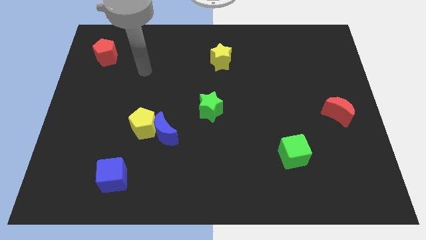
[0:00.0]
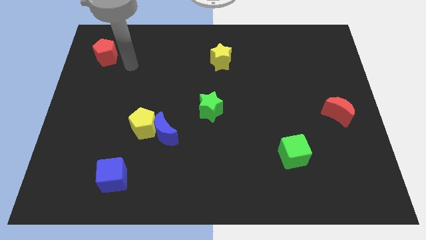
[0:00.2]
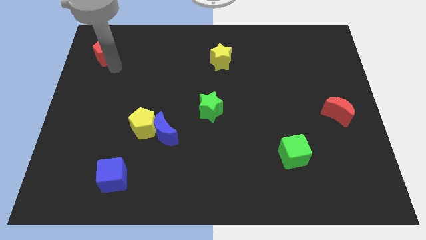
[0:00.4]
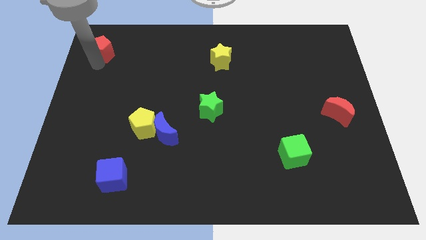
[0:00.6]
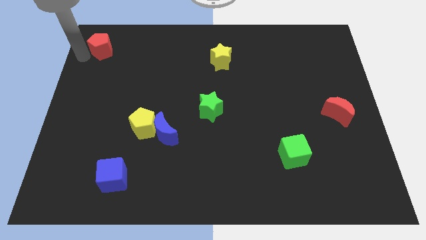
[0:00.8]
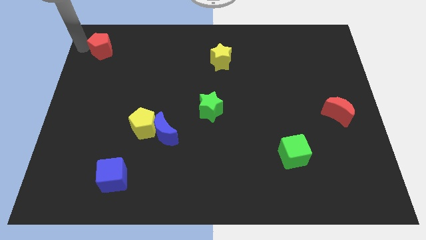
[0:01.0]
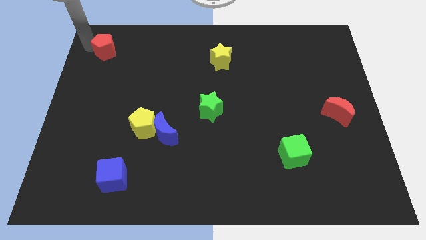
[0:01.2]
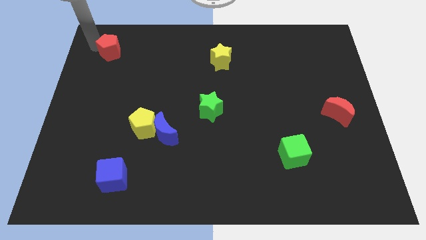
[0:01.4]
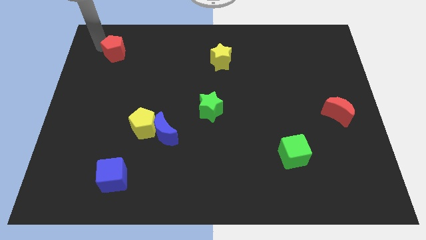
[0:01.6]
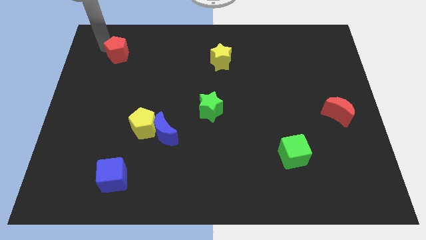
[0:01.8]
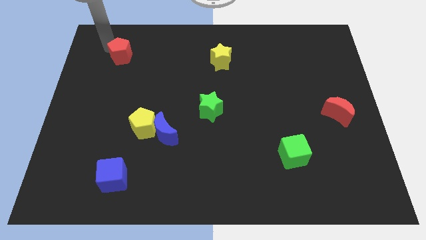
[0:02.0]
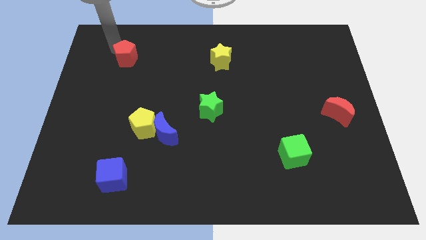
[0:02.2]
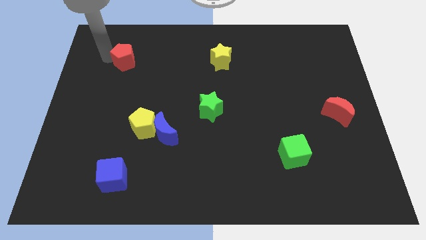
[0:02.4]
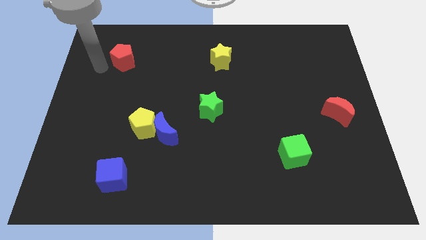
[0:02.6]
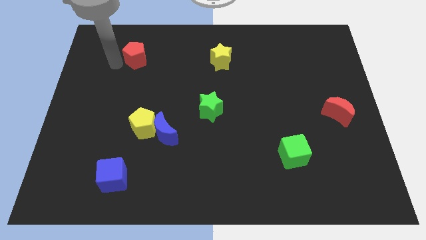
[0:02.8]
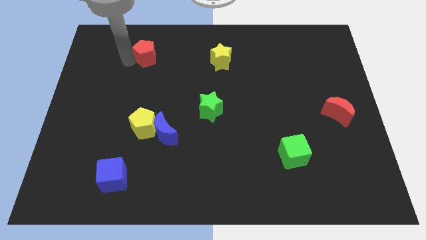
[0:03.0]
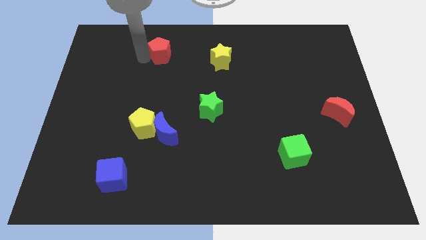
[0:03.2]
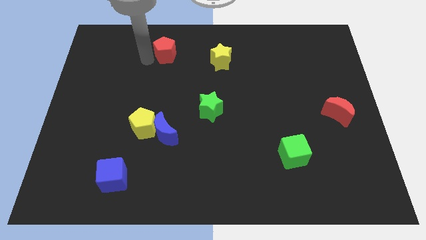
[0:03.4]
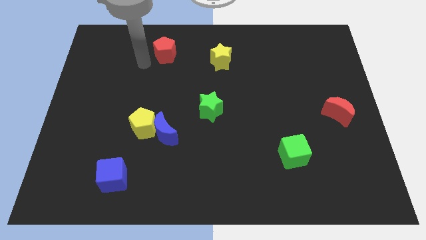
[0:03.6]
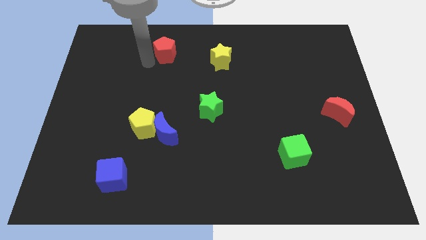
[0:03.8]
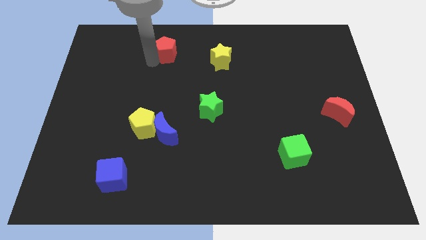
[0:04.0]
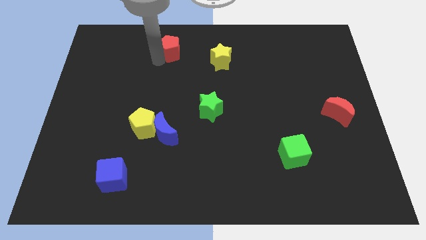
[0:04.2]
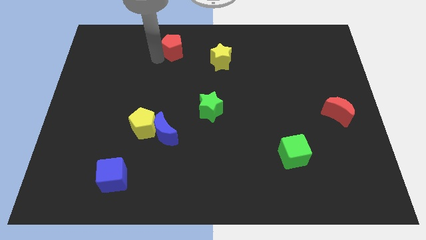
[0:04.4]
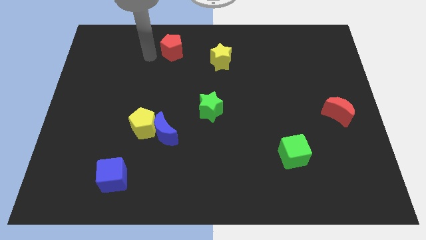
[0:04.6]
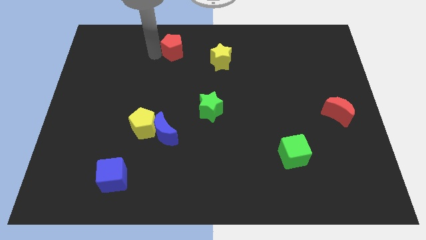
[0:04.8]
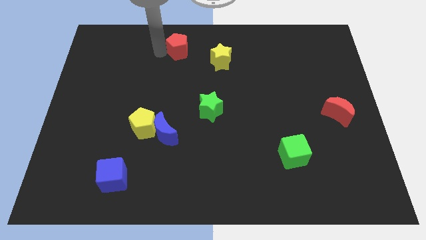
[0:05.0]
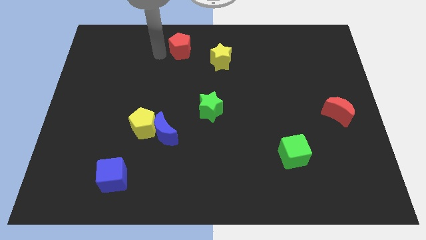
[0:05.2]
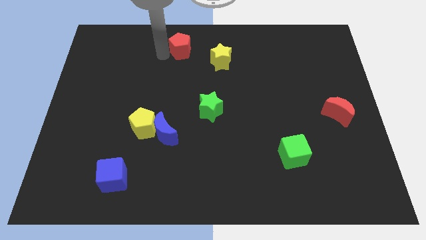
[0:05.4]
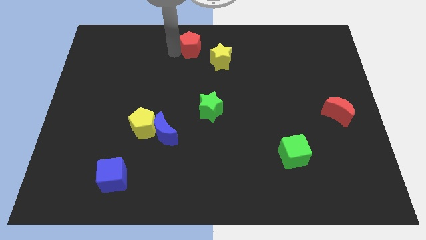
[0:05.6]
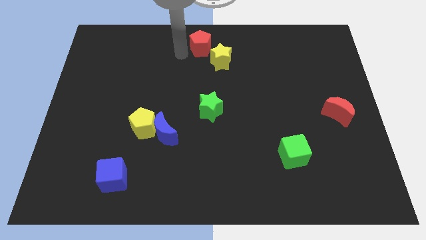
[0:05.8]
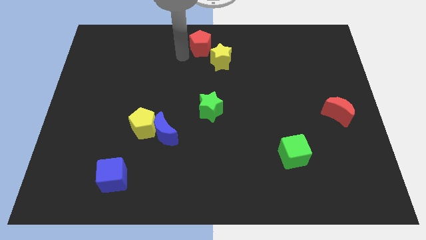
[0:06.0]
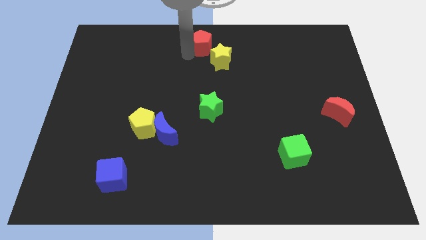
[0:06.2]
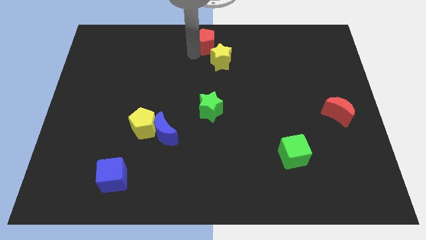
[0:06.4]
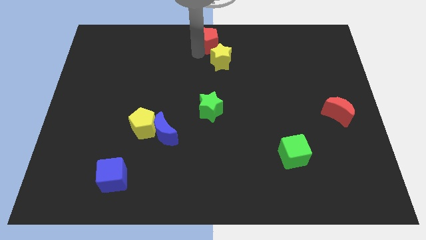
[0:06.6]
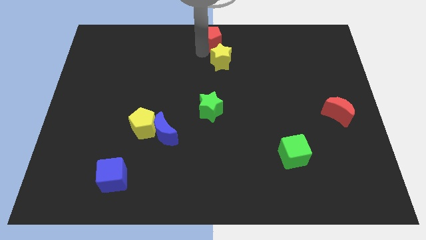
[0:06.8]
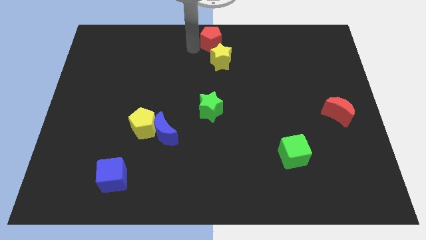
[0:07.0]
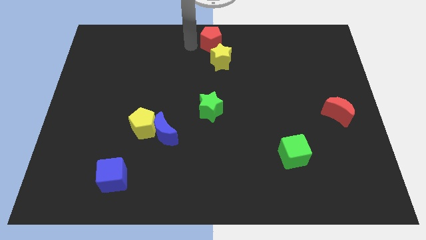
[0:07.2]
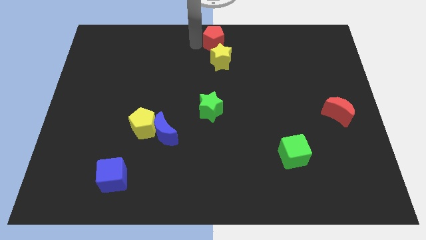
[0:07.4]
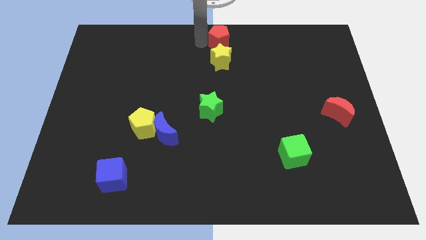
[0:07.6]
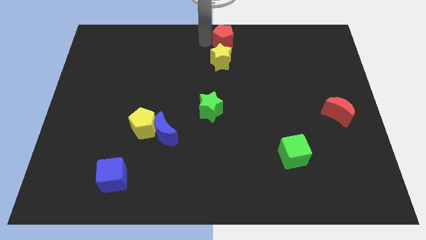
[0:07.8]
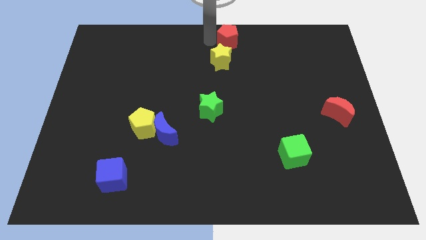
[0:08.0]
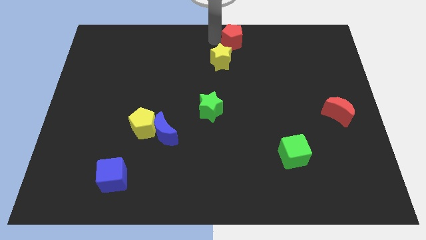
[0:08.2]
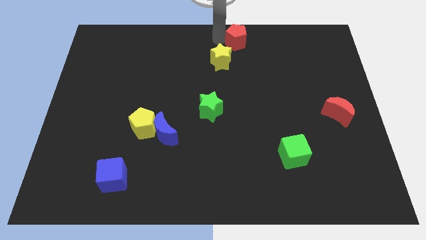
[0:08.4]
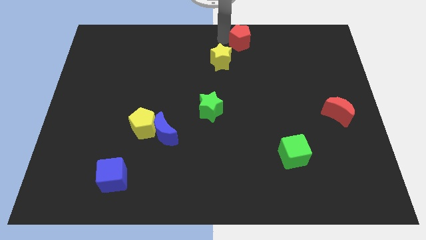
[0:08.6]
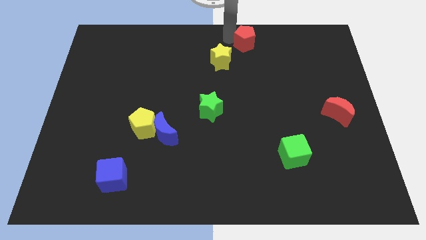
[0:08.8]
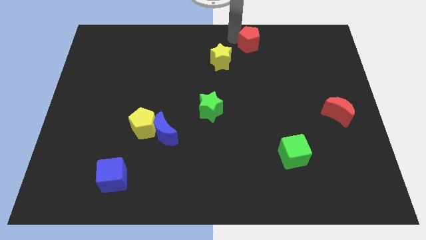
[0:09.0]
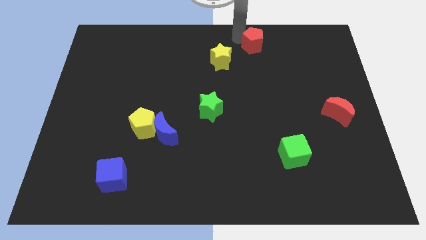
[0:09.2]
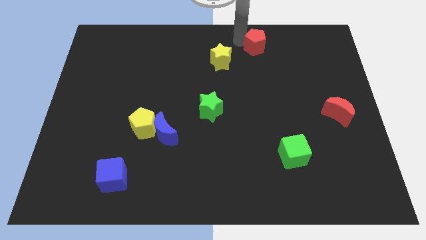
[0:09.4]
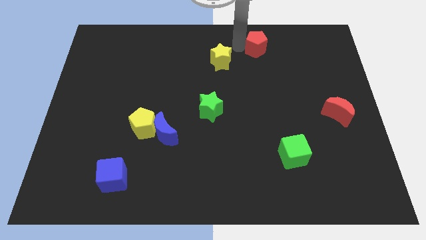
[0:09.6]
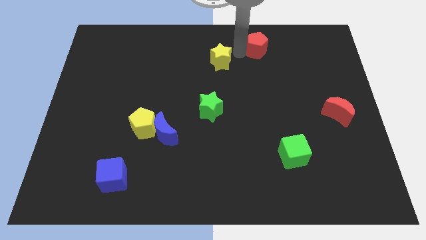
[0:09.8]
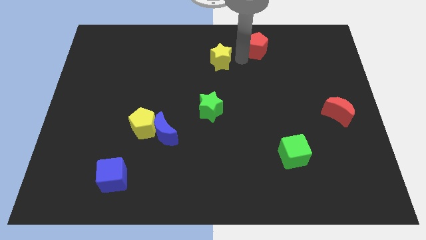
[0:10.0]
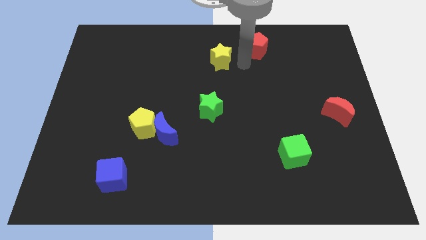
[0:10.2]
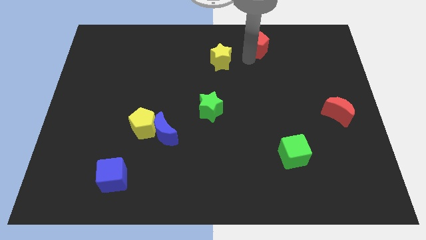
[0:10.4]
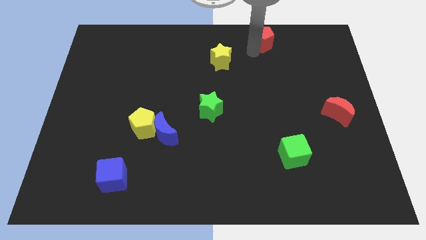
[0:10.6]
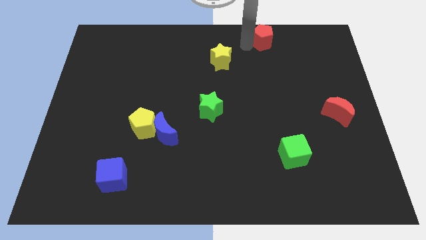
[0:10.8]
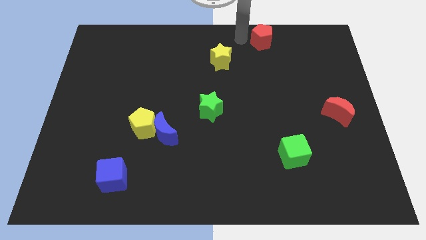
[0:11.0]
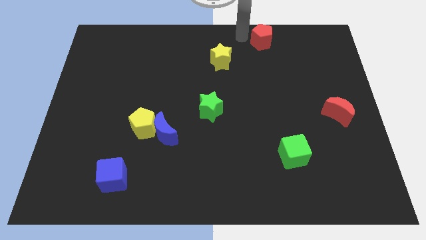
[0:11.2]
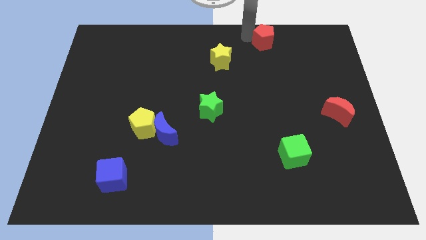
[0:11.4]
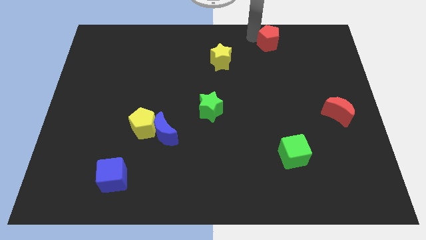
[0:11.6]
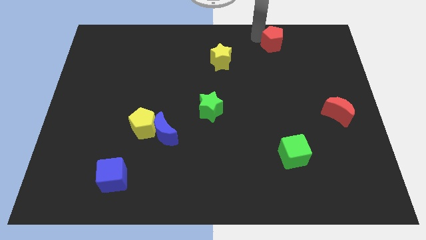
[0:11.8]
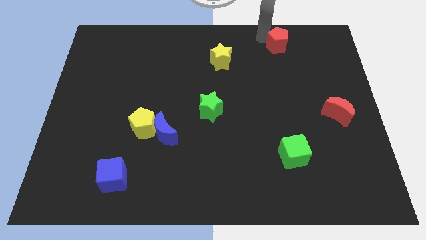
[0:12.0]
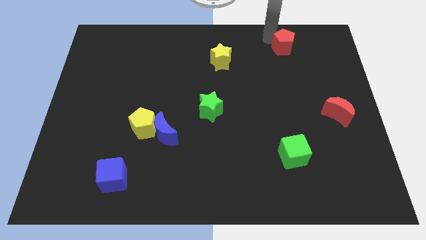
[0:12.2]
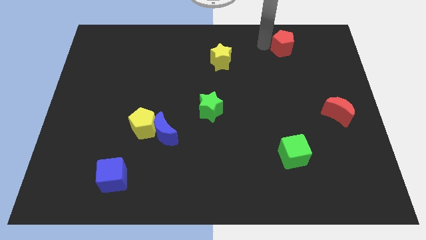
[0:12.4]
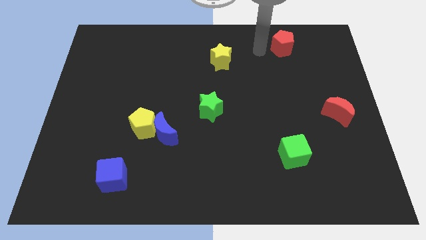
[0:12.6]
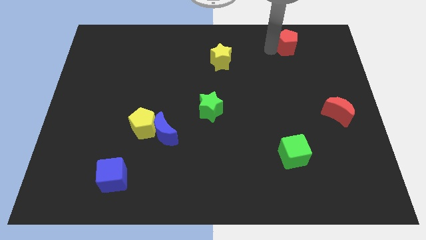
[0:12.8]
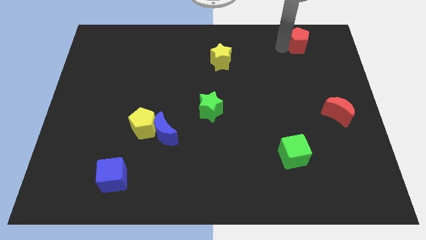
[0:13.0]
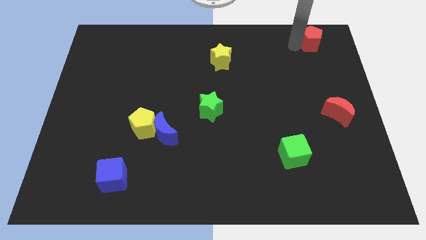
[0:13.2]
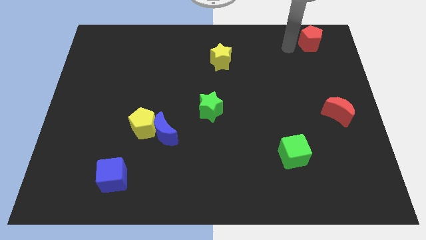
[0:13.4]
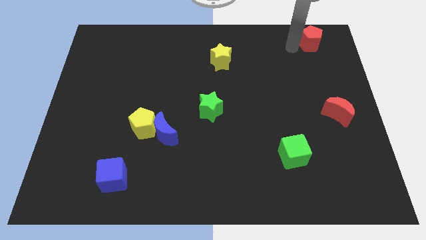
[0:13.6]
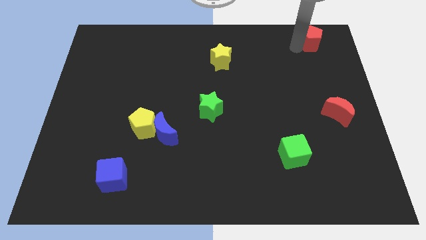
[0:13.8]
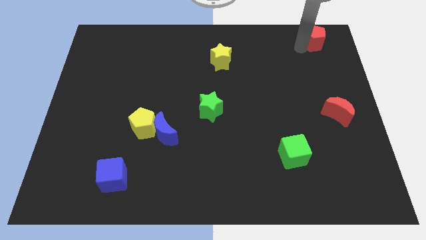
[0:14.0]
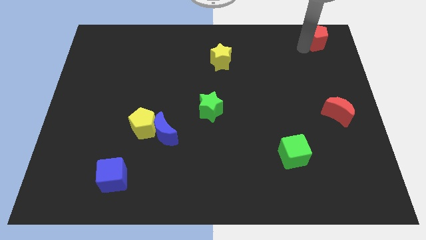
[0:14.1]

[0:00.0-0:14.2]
move the red pentagon to the upper right corner
